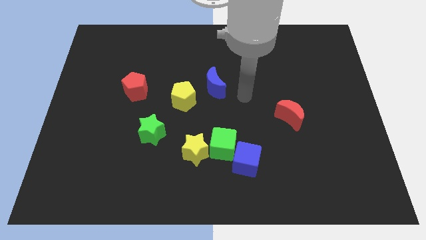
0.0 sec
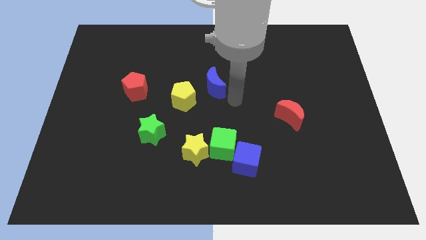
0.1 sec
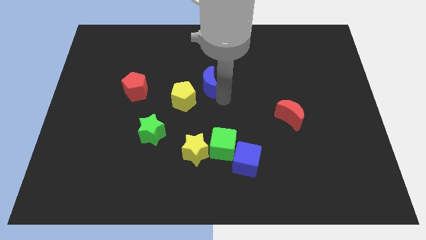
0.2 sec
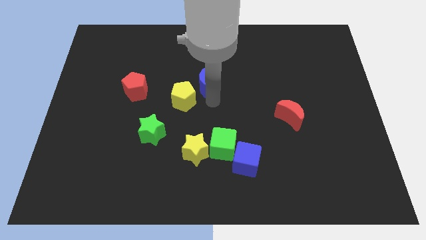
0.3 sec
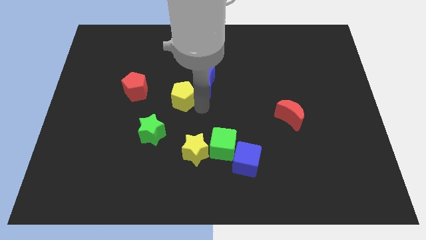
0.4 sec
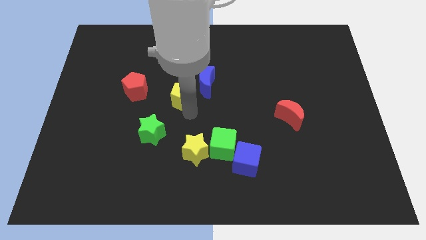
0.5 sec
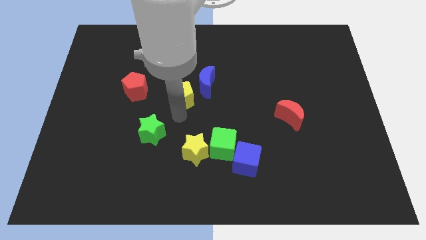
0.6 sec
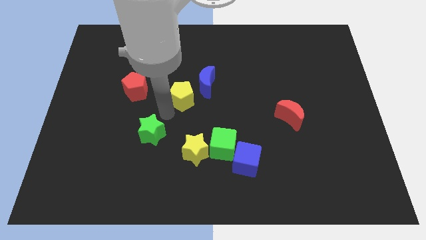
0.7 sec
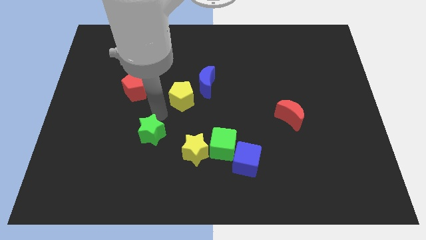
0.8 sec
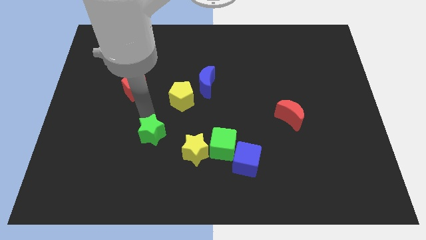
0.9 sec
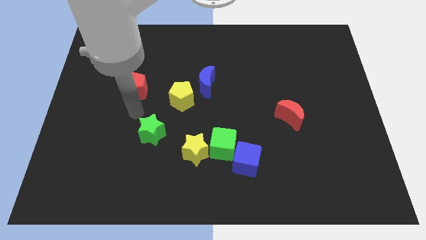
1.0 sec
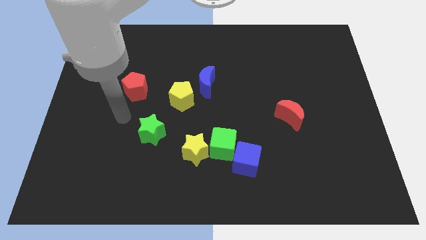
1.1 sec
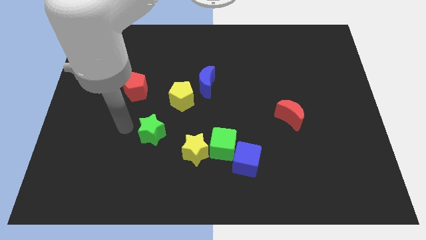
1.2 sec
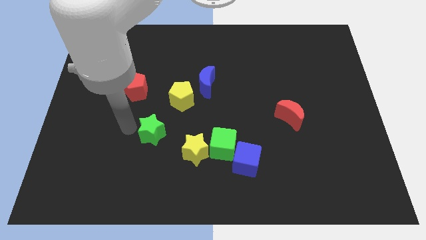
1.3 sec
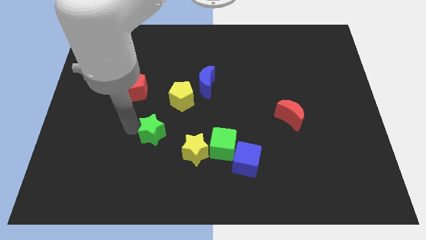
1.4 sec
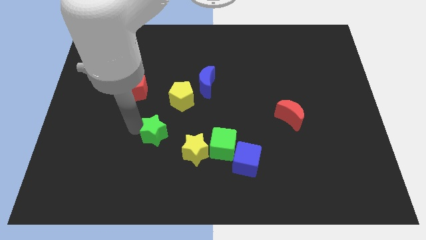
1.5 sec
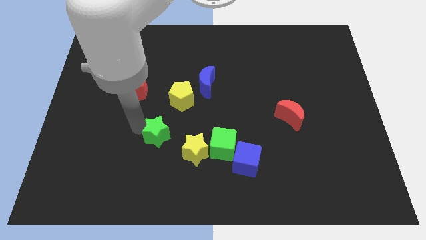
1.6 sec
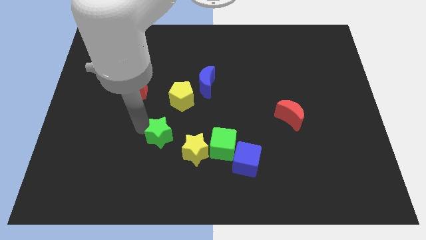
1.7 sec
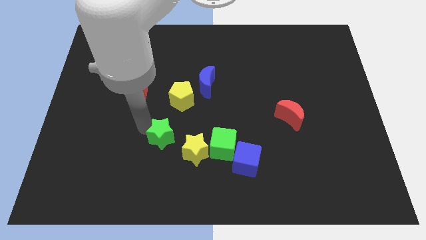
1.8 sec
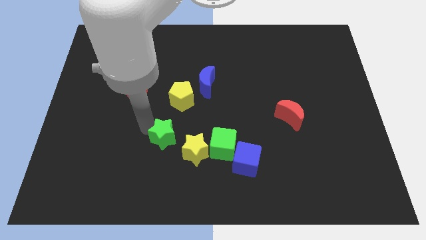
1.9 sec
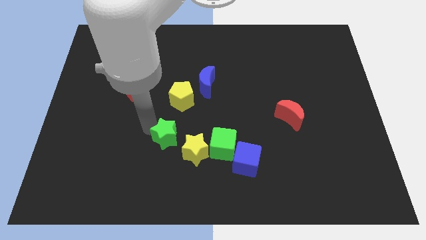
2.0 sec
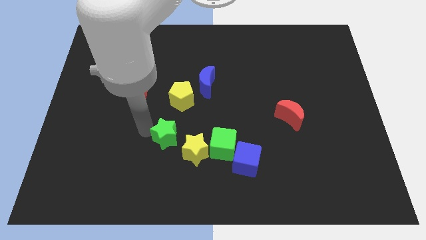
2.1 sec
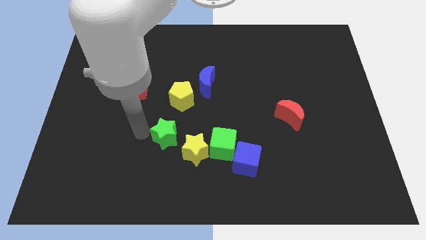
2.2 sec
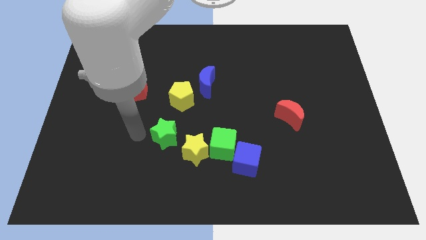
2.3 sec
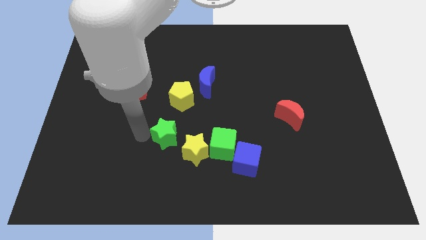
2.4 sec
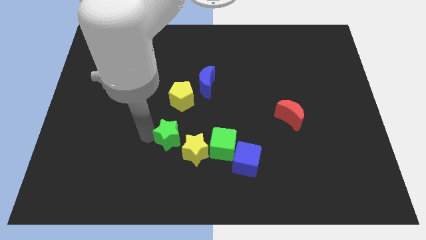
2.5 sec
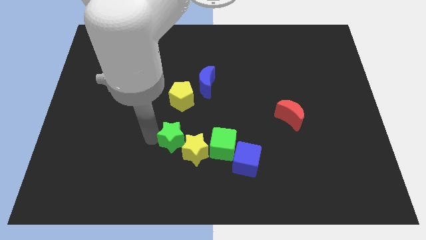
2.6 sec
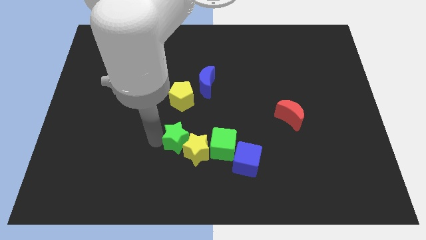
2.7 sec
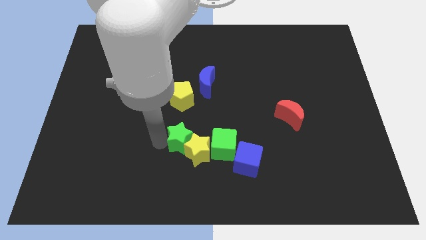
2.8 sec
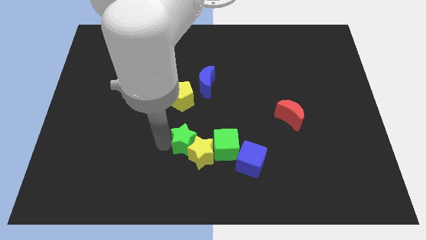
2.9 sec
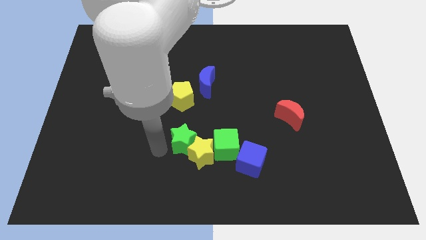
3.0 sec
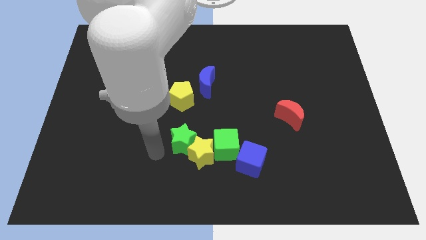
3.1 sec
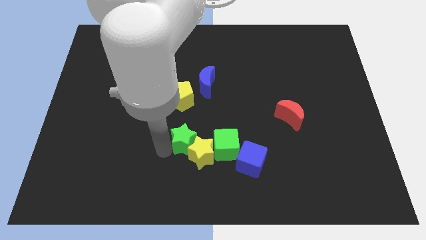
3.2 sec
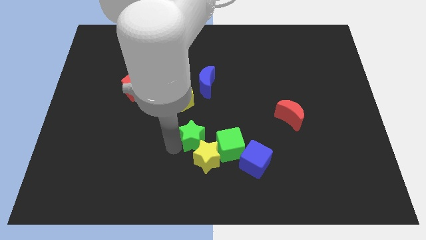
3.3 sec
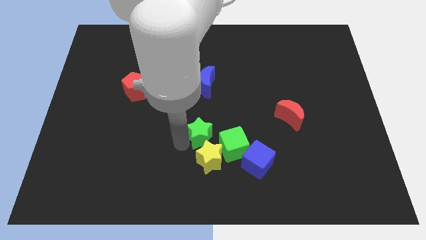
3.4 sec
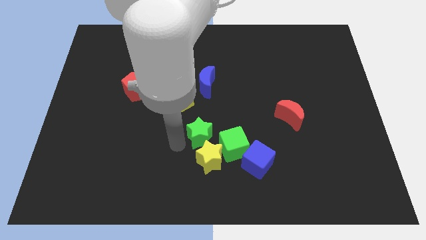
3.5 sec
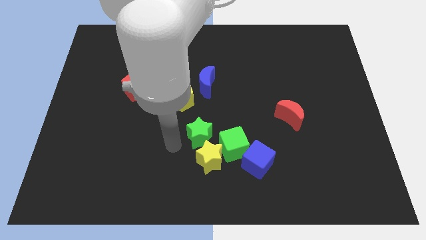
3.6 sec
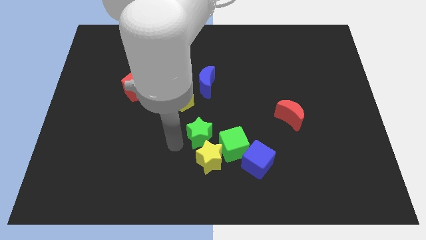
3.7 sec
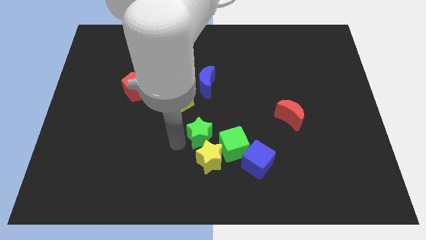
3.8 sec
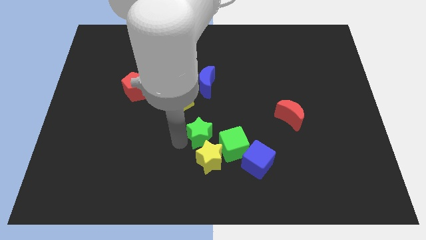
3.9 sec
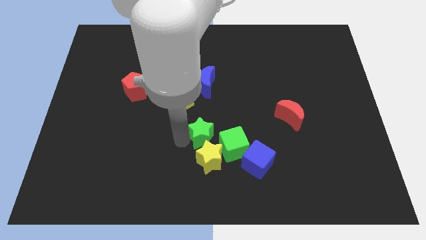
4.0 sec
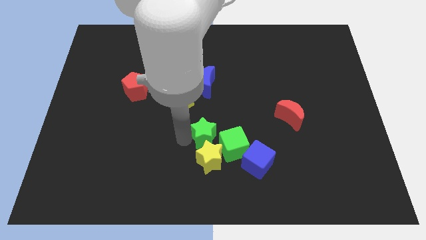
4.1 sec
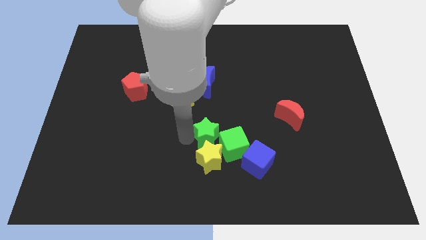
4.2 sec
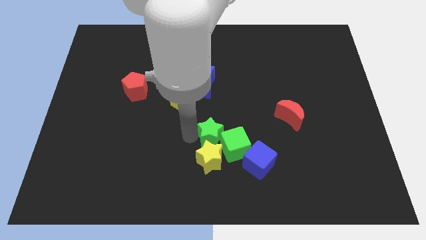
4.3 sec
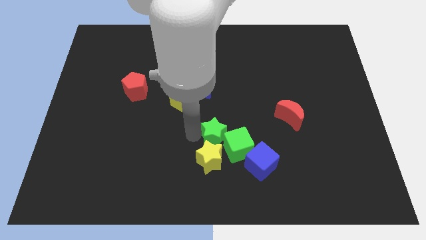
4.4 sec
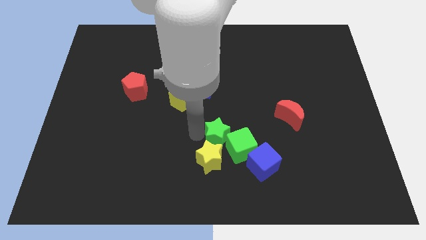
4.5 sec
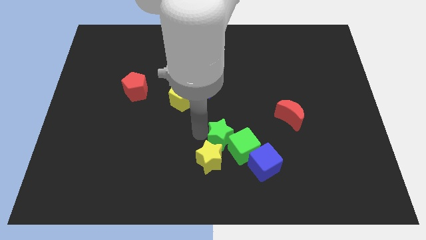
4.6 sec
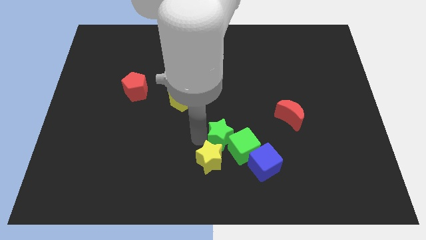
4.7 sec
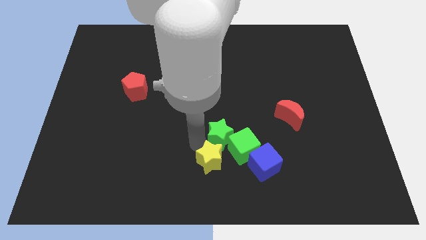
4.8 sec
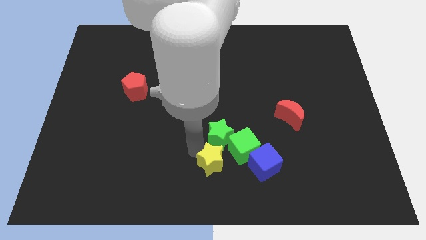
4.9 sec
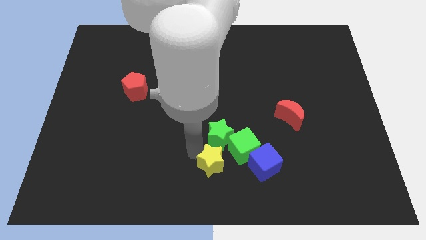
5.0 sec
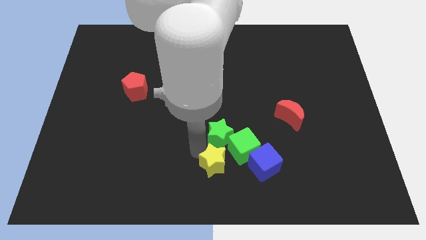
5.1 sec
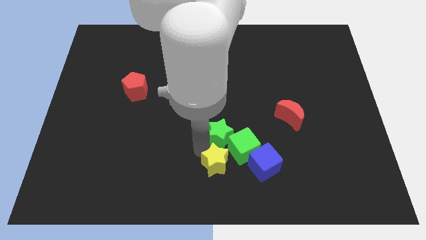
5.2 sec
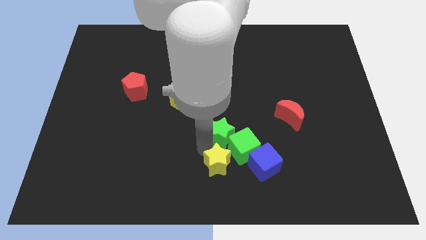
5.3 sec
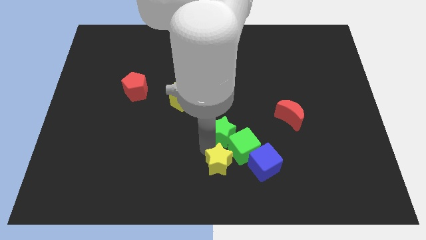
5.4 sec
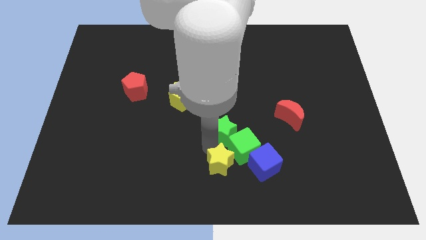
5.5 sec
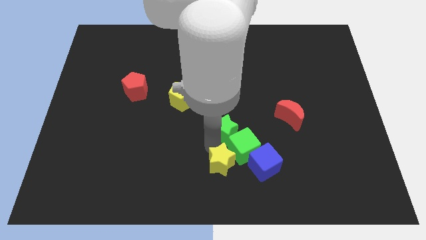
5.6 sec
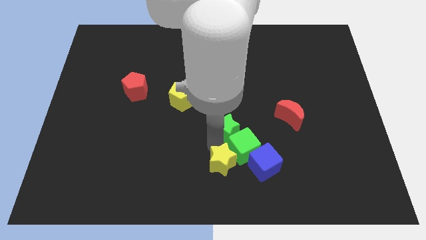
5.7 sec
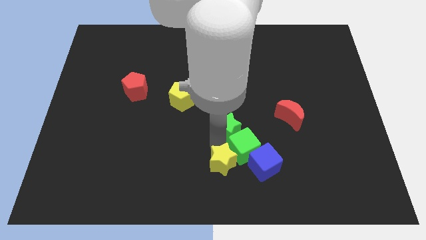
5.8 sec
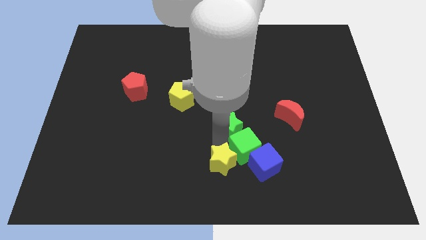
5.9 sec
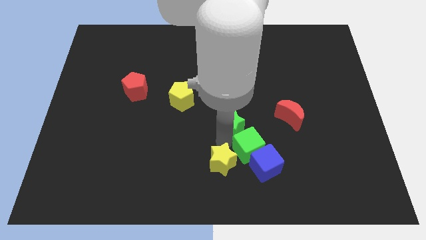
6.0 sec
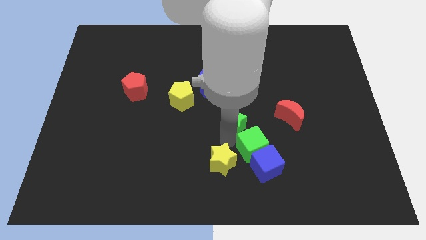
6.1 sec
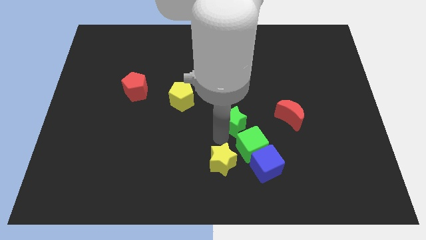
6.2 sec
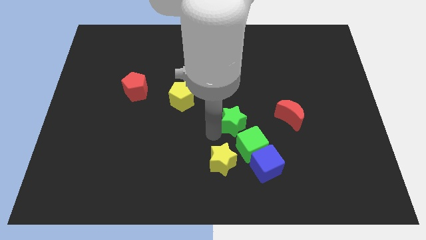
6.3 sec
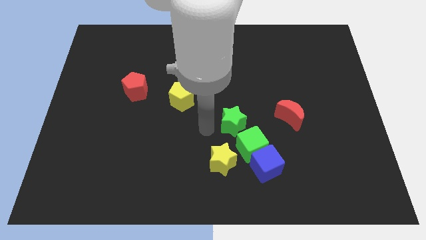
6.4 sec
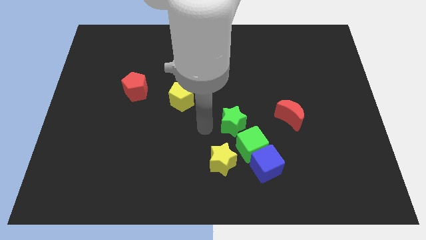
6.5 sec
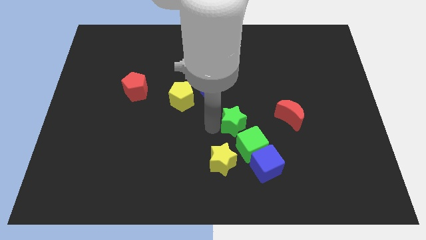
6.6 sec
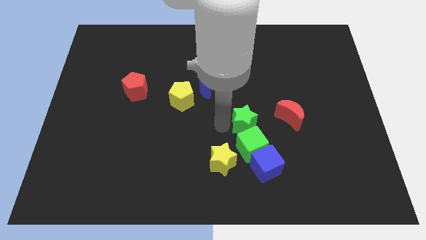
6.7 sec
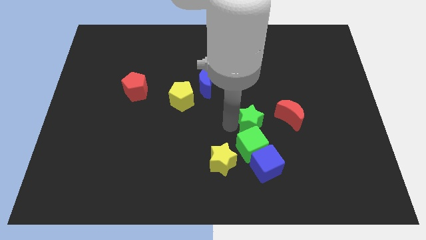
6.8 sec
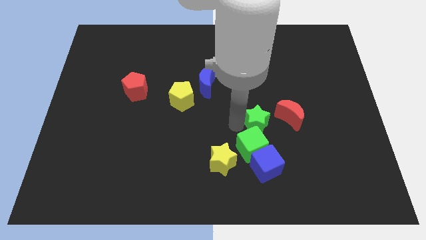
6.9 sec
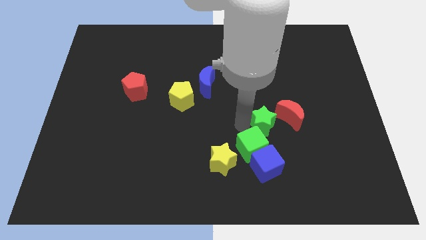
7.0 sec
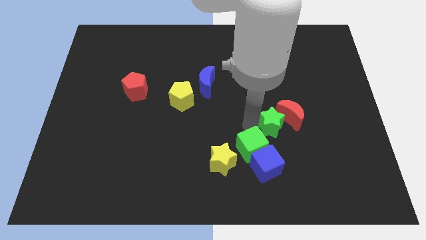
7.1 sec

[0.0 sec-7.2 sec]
push the green star to the red moon
